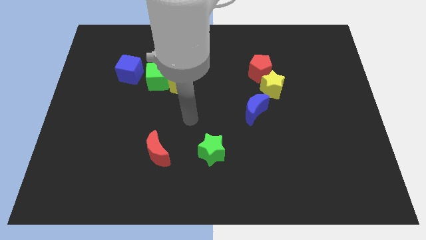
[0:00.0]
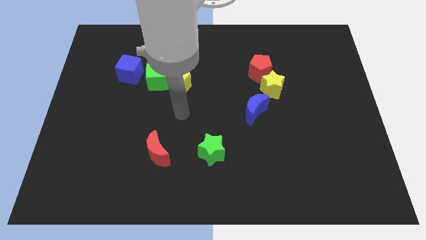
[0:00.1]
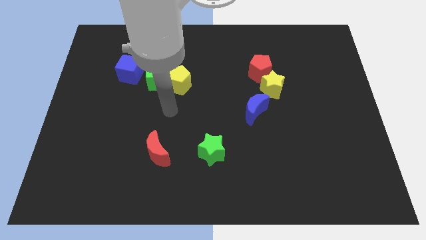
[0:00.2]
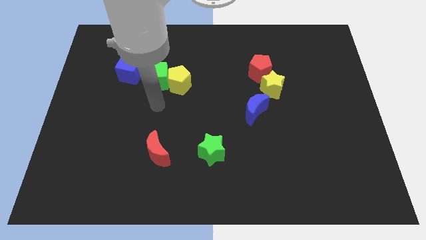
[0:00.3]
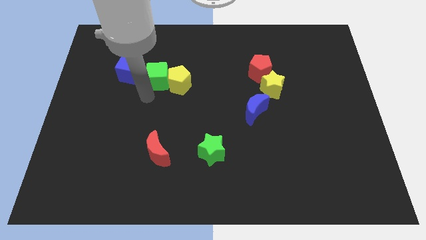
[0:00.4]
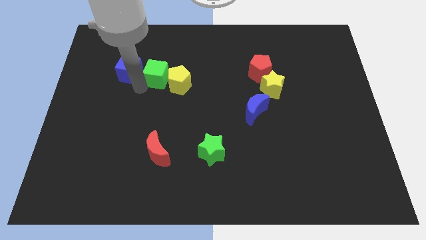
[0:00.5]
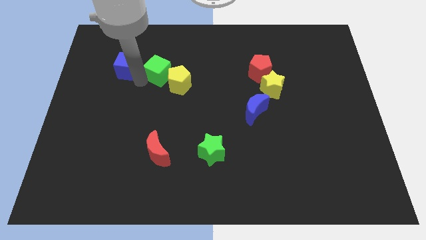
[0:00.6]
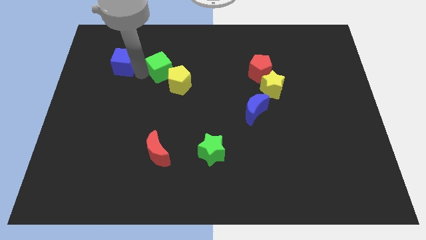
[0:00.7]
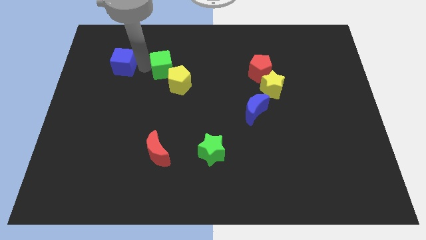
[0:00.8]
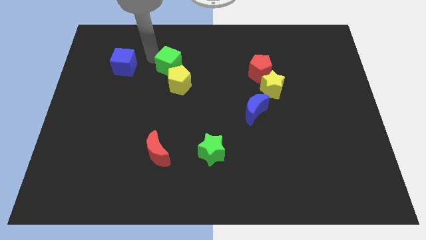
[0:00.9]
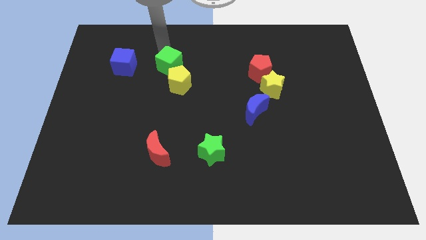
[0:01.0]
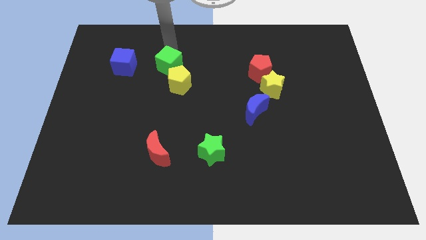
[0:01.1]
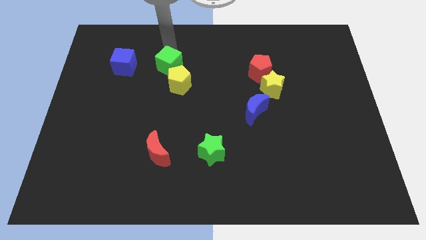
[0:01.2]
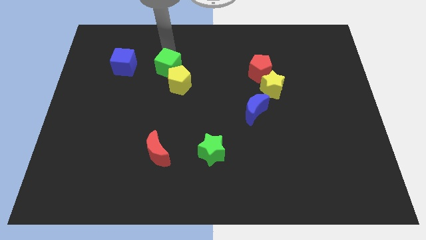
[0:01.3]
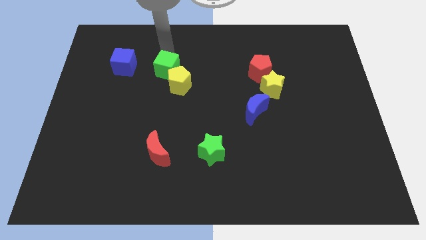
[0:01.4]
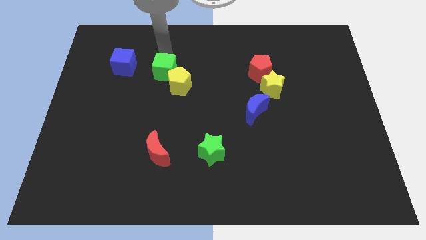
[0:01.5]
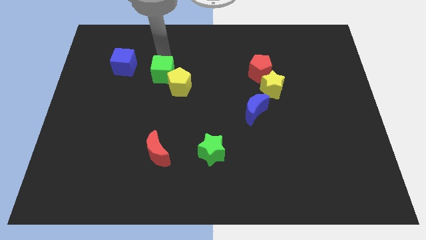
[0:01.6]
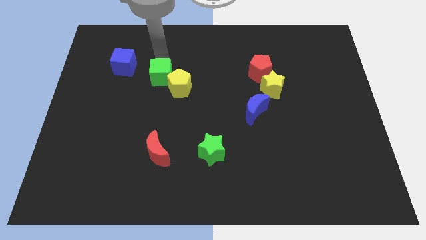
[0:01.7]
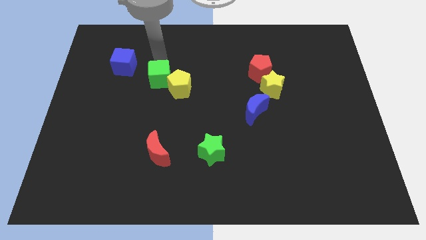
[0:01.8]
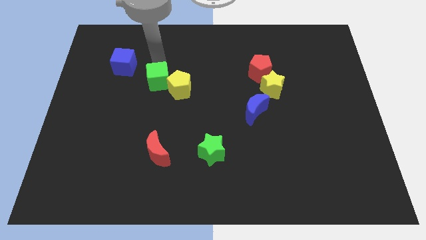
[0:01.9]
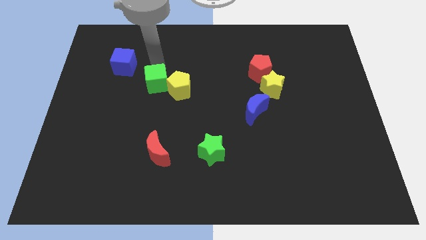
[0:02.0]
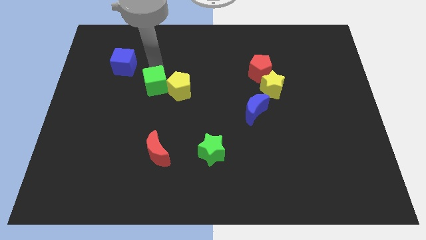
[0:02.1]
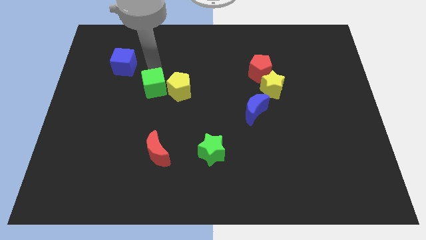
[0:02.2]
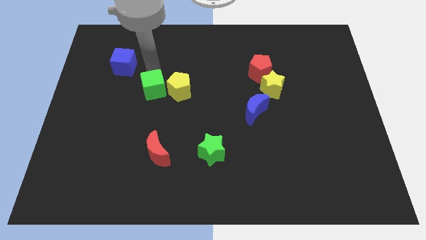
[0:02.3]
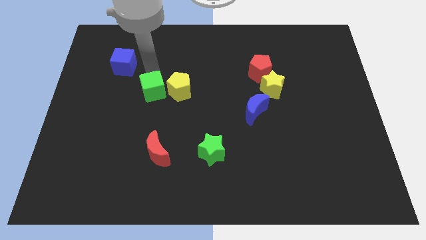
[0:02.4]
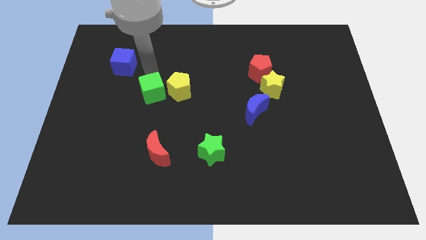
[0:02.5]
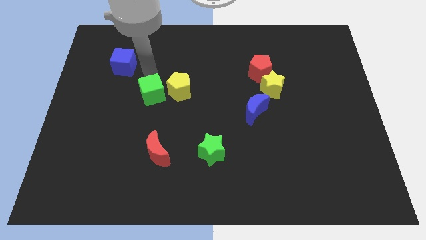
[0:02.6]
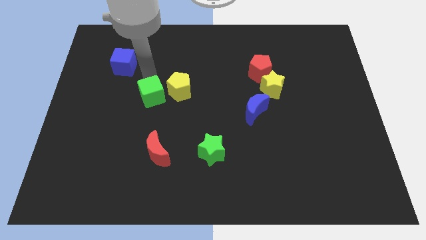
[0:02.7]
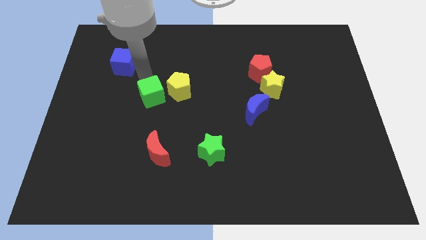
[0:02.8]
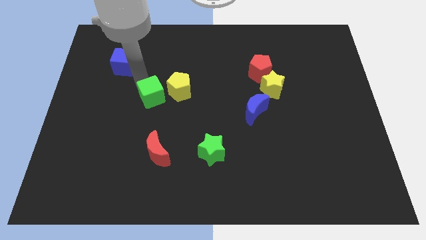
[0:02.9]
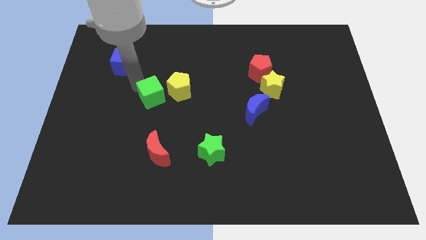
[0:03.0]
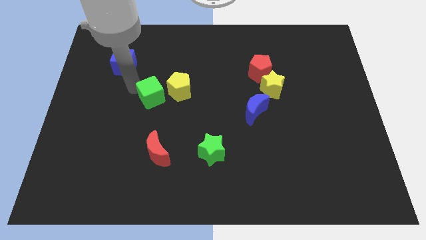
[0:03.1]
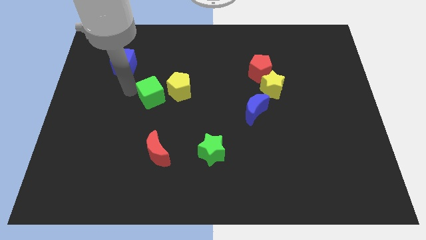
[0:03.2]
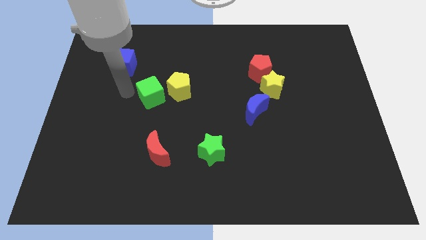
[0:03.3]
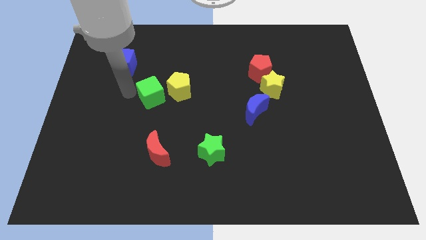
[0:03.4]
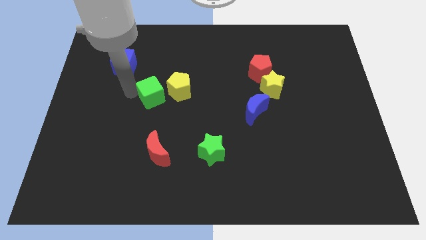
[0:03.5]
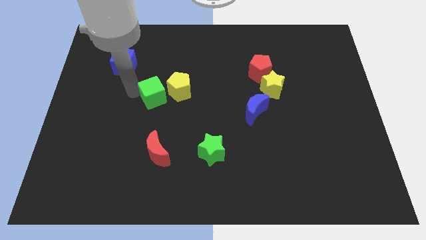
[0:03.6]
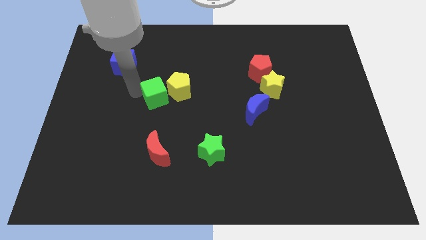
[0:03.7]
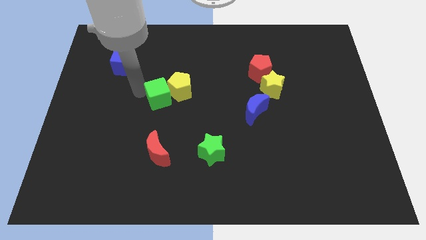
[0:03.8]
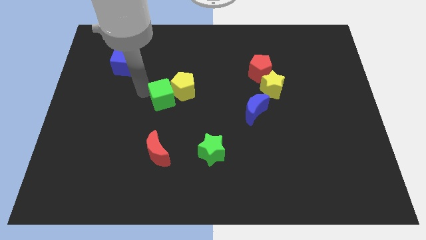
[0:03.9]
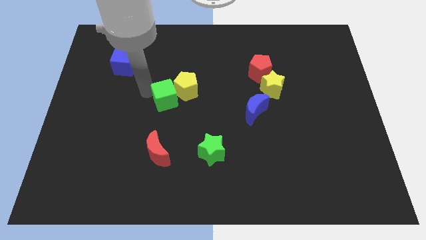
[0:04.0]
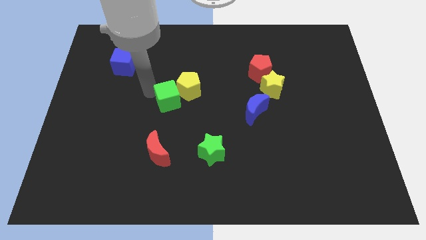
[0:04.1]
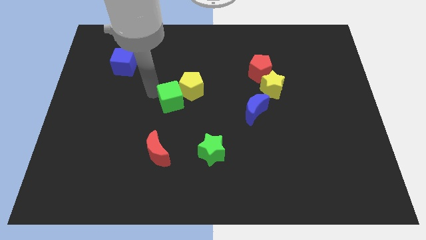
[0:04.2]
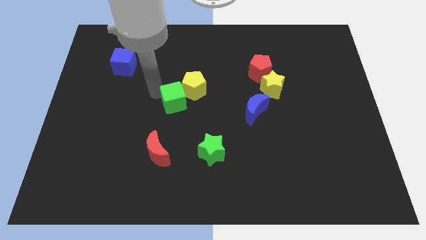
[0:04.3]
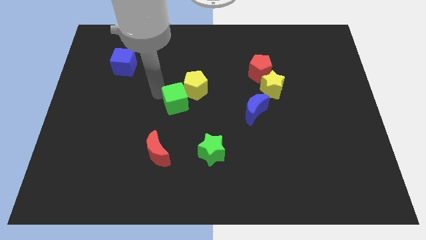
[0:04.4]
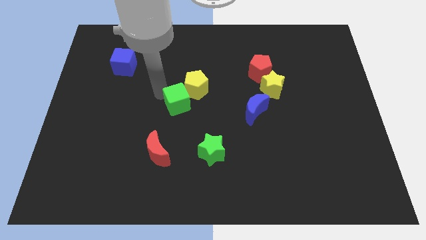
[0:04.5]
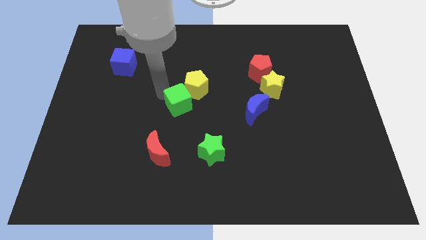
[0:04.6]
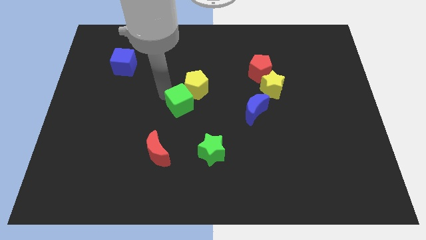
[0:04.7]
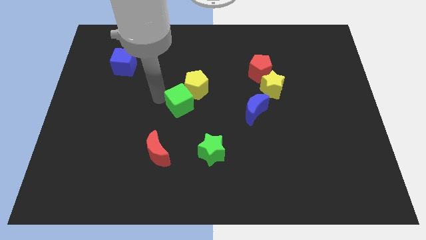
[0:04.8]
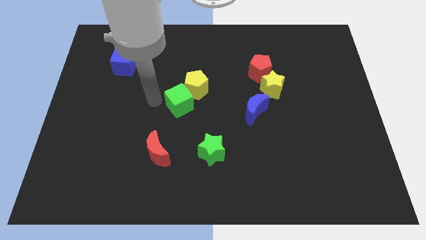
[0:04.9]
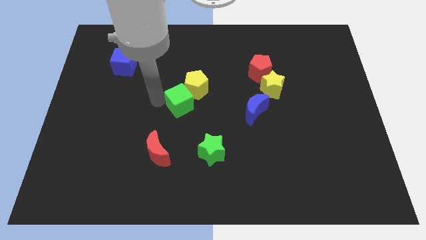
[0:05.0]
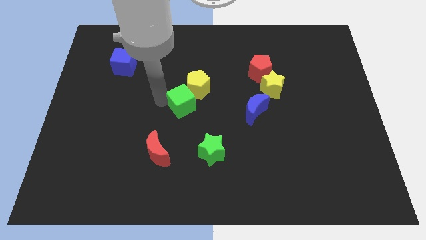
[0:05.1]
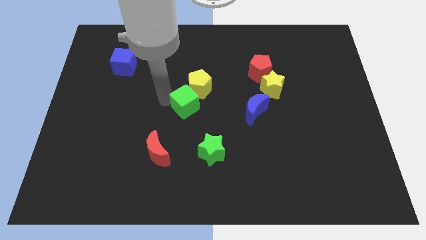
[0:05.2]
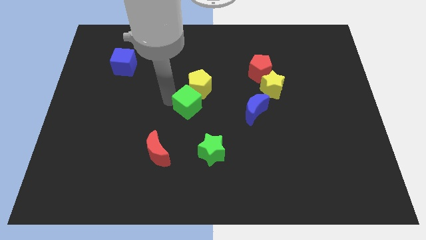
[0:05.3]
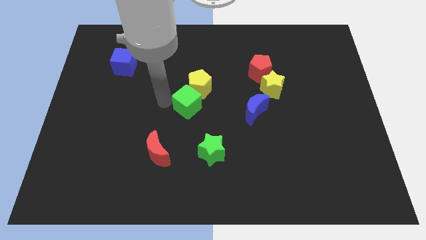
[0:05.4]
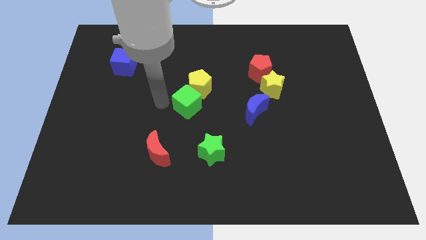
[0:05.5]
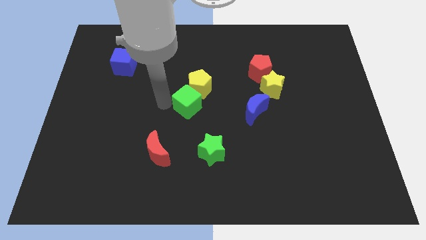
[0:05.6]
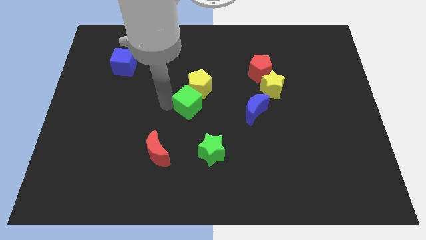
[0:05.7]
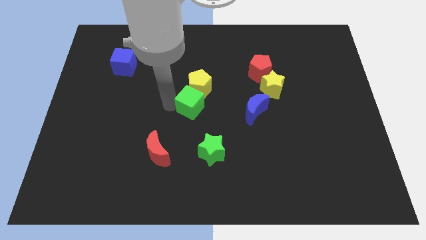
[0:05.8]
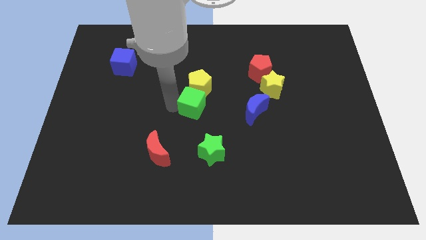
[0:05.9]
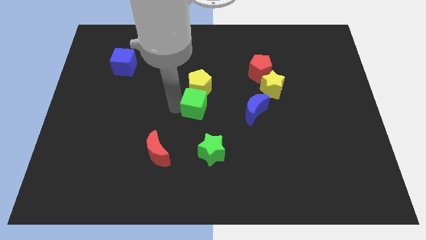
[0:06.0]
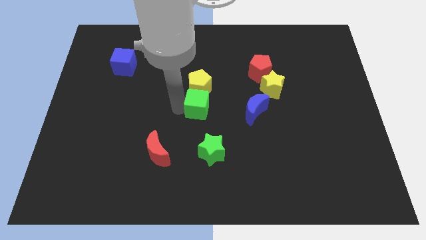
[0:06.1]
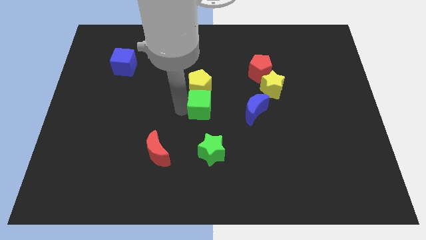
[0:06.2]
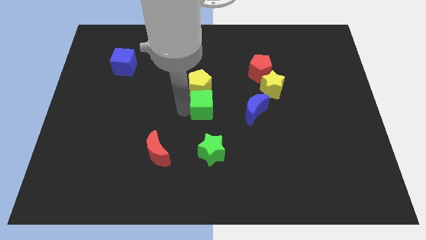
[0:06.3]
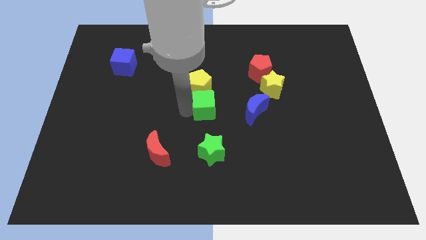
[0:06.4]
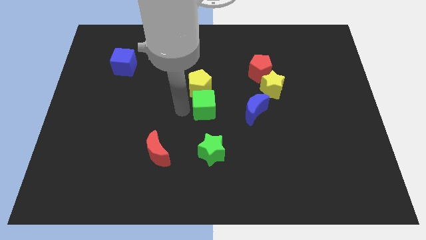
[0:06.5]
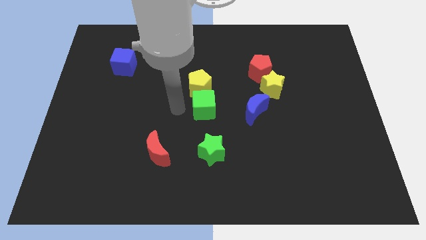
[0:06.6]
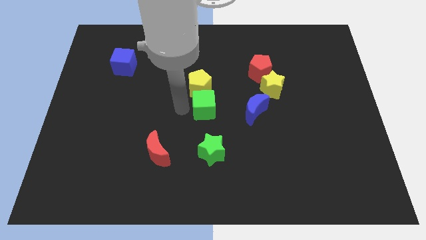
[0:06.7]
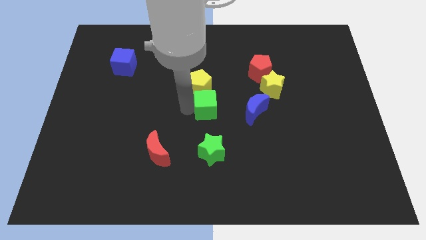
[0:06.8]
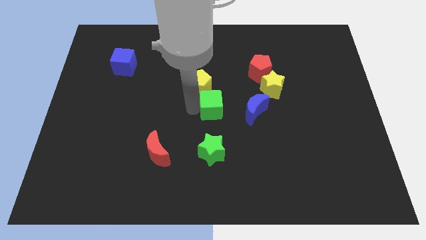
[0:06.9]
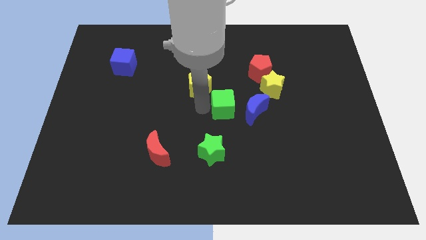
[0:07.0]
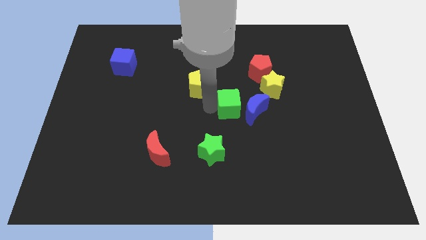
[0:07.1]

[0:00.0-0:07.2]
slide the green cube close to the blue moon
